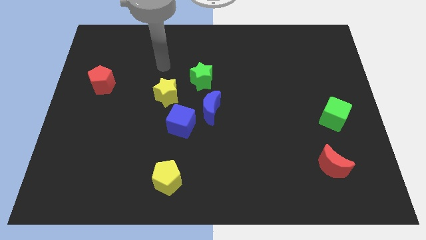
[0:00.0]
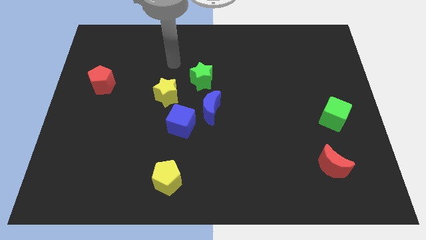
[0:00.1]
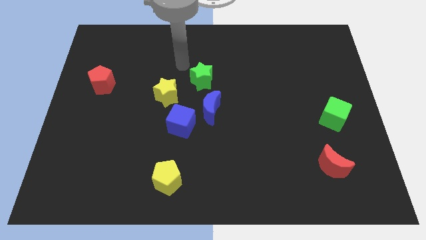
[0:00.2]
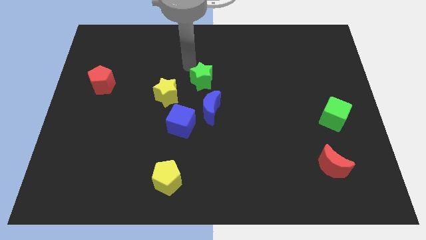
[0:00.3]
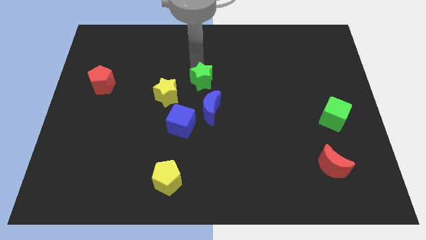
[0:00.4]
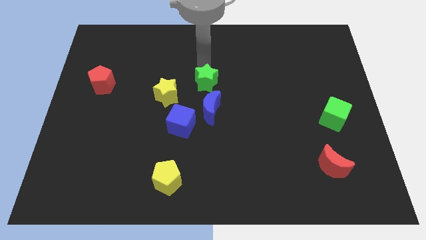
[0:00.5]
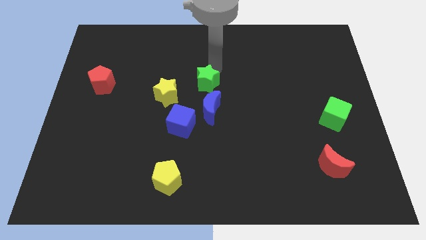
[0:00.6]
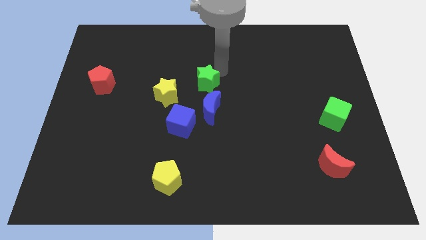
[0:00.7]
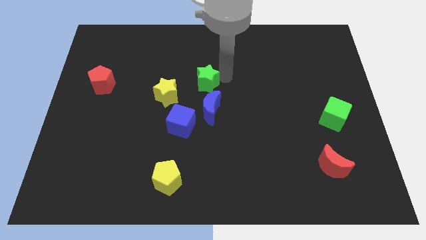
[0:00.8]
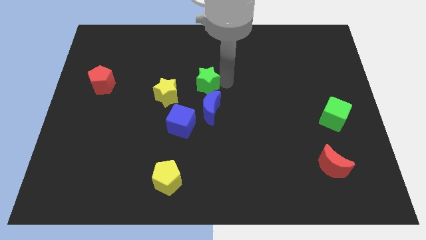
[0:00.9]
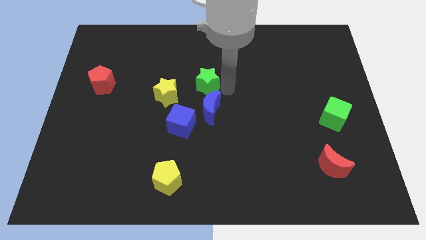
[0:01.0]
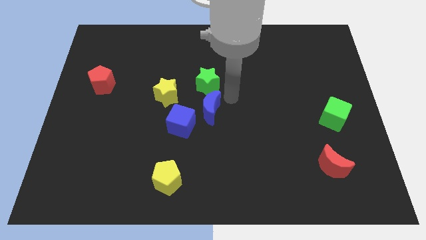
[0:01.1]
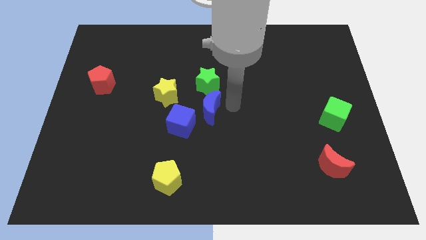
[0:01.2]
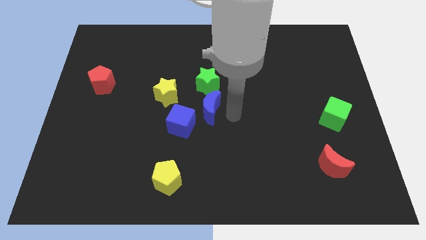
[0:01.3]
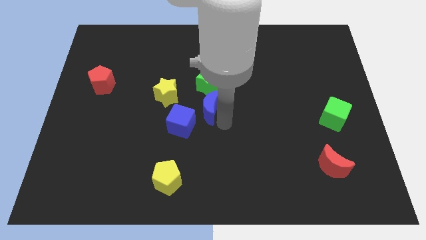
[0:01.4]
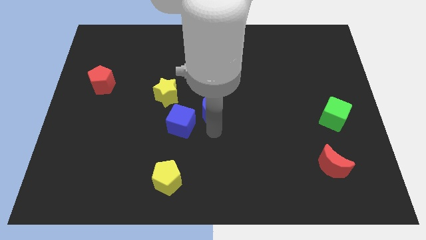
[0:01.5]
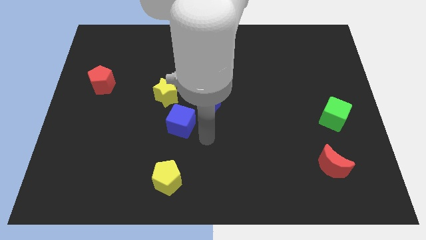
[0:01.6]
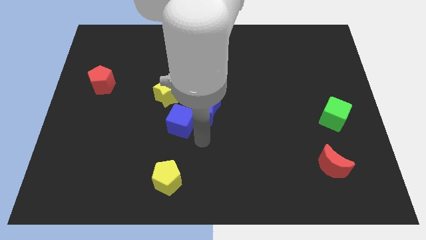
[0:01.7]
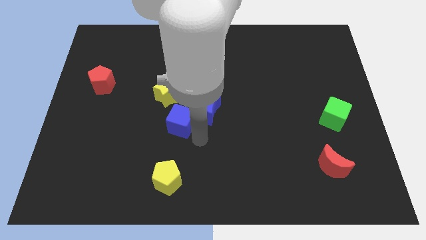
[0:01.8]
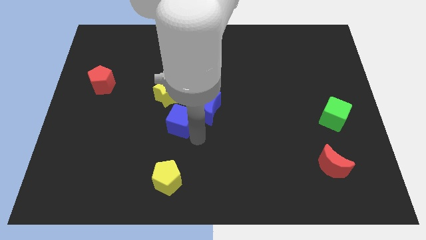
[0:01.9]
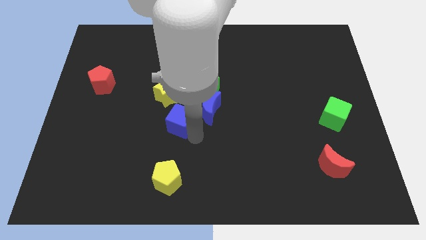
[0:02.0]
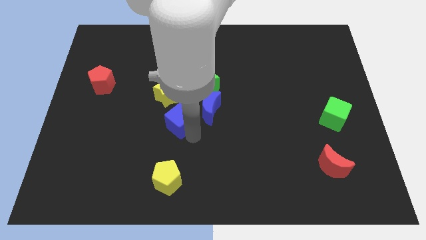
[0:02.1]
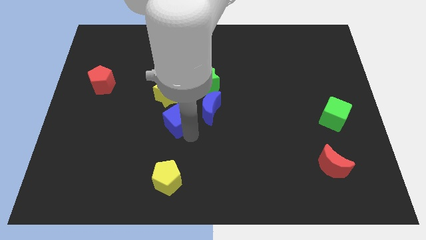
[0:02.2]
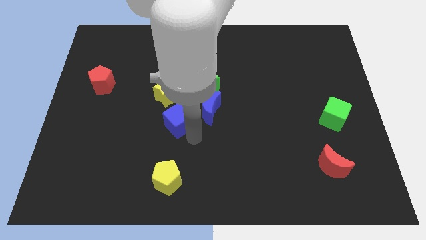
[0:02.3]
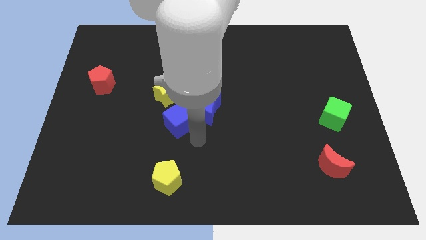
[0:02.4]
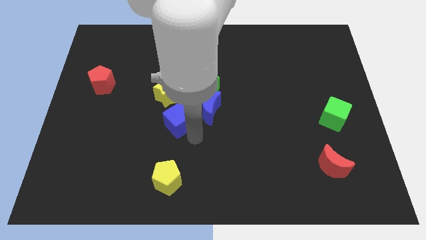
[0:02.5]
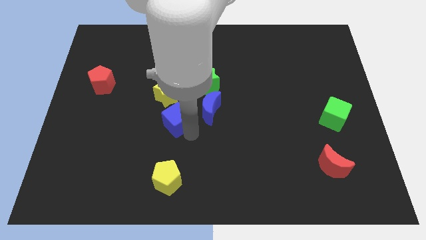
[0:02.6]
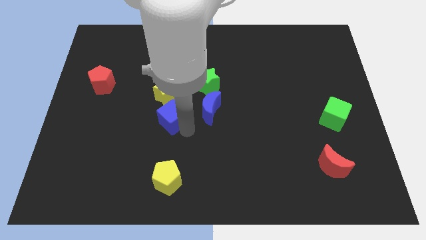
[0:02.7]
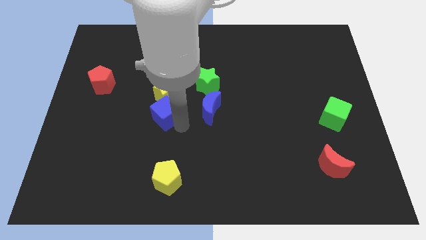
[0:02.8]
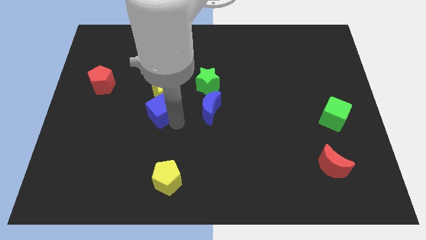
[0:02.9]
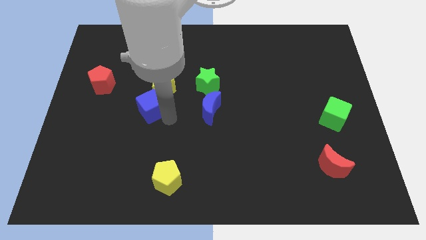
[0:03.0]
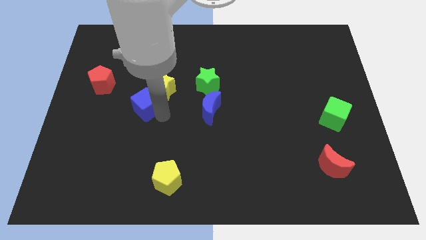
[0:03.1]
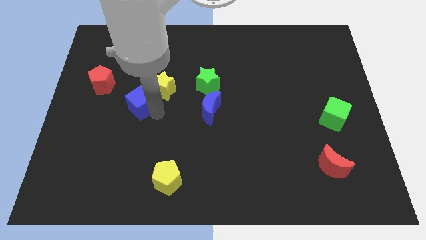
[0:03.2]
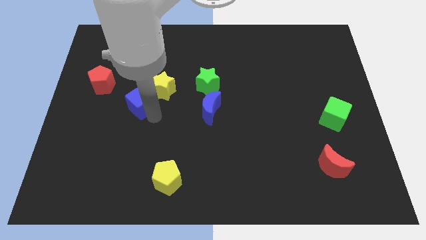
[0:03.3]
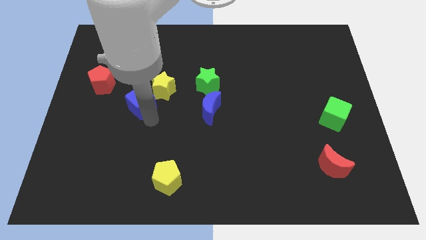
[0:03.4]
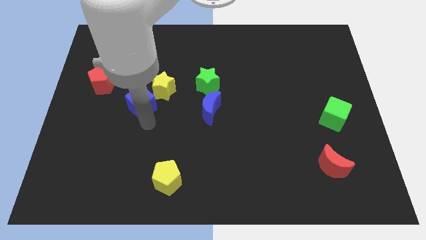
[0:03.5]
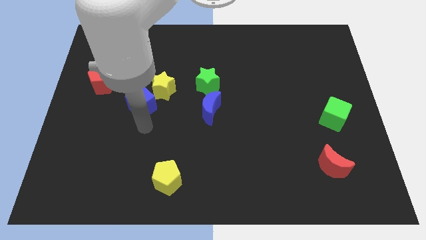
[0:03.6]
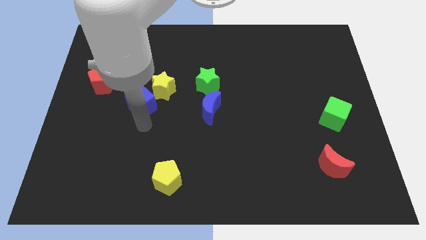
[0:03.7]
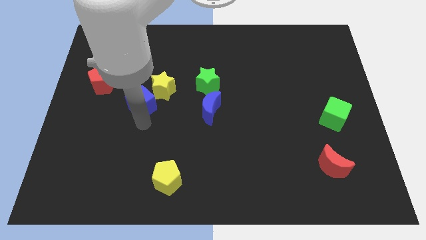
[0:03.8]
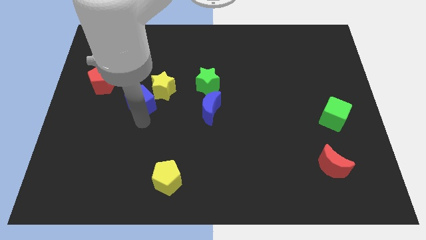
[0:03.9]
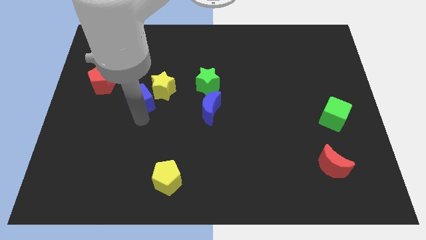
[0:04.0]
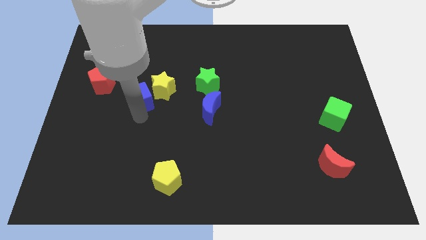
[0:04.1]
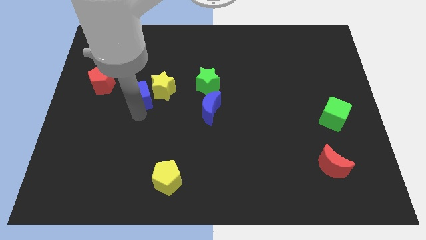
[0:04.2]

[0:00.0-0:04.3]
move the blue cube to the right side of the red pentagon

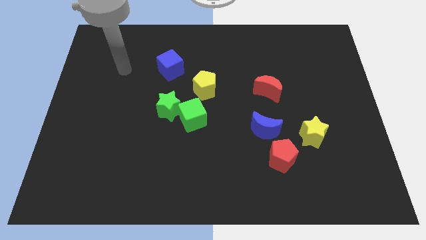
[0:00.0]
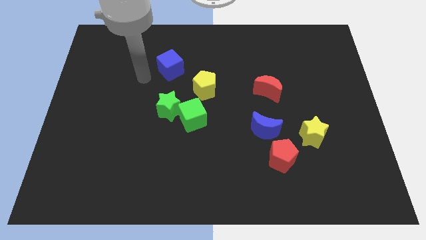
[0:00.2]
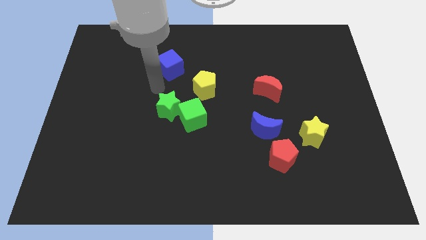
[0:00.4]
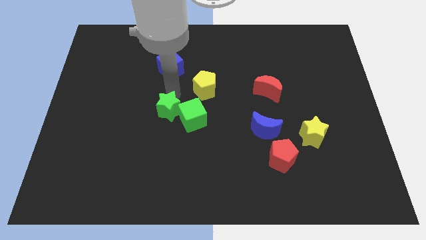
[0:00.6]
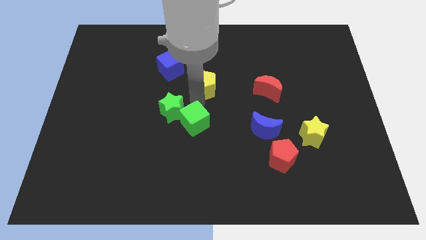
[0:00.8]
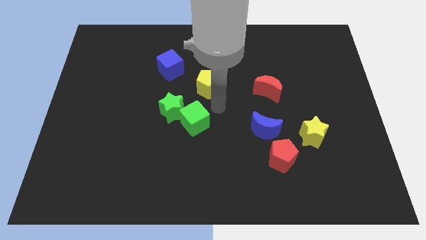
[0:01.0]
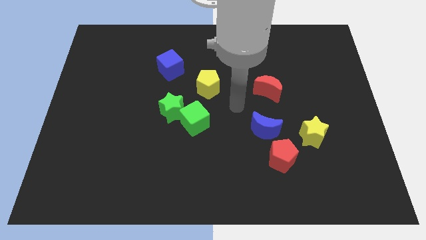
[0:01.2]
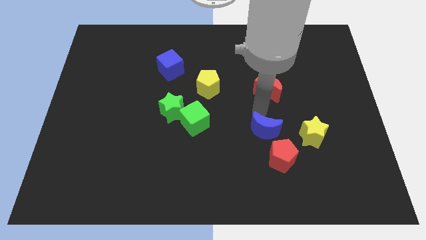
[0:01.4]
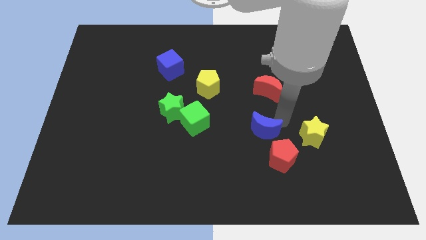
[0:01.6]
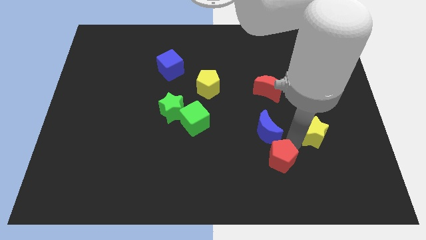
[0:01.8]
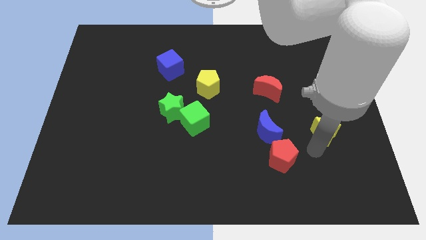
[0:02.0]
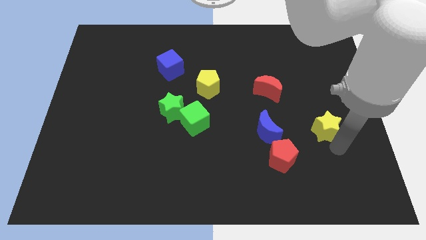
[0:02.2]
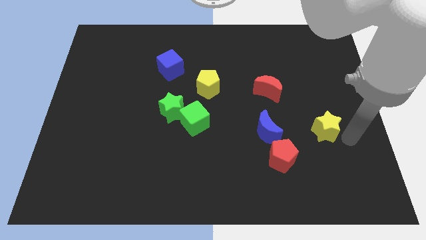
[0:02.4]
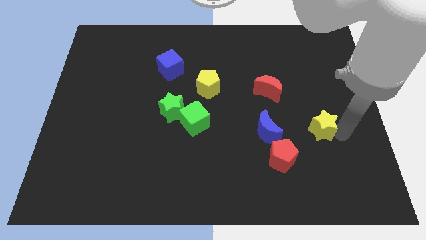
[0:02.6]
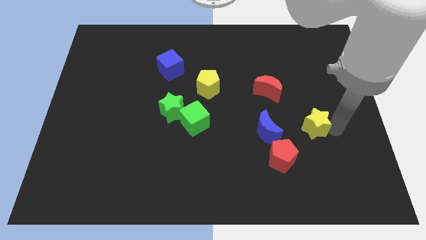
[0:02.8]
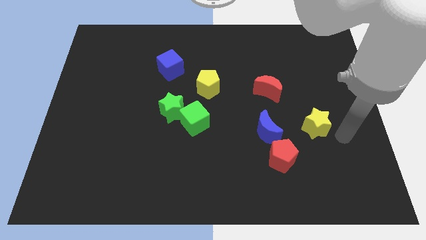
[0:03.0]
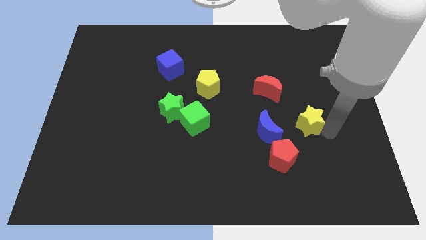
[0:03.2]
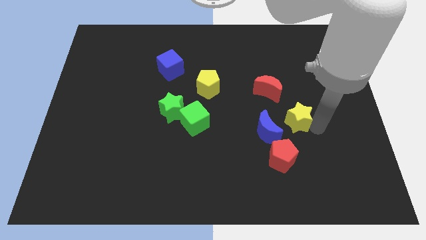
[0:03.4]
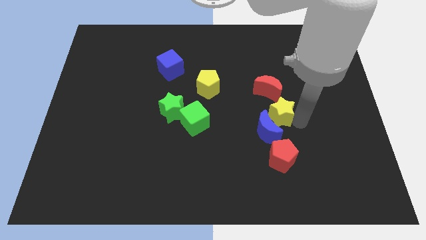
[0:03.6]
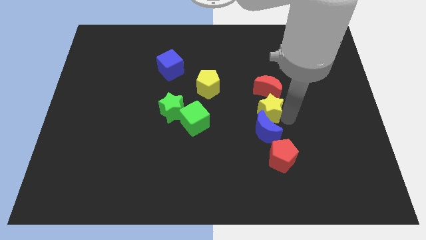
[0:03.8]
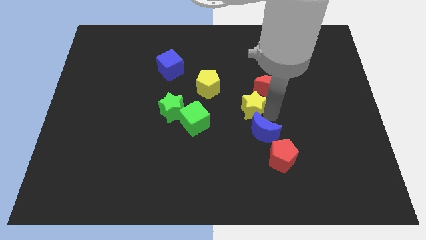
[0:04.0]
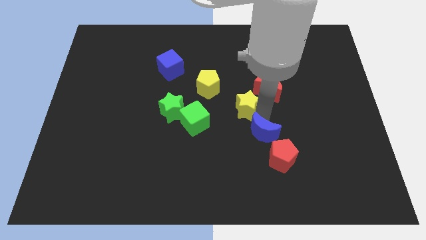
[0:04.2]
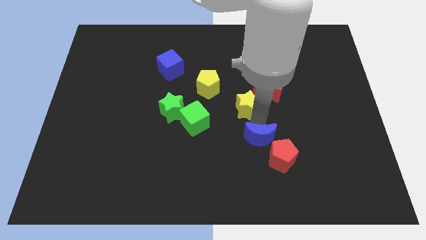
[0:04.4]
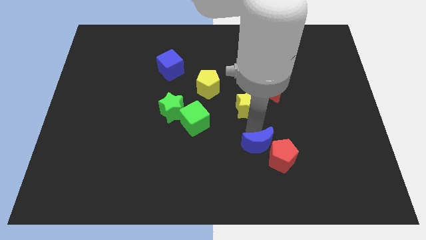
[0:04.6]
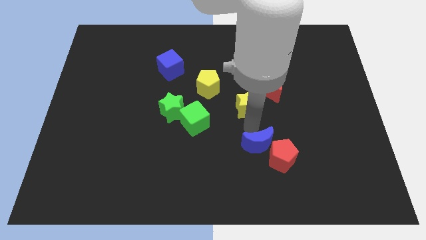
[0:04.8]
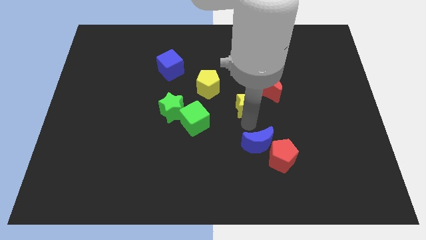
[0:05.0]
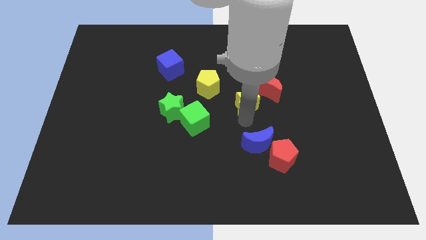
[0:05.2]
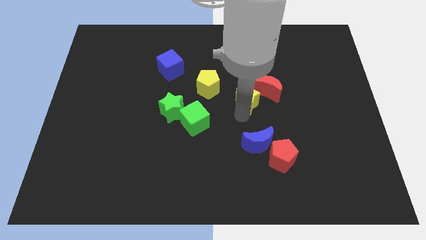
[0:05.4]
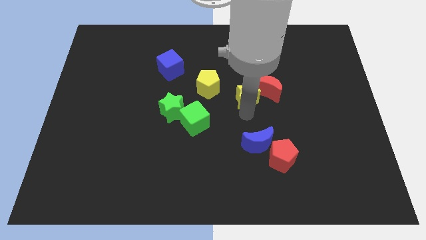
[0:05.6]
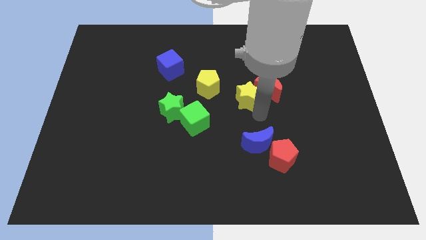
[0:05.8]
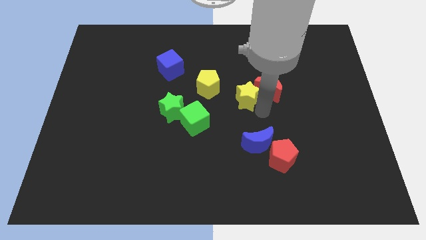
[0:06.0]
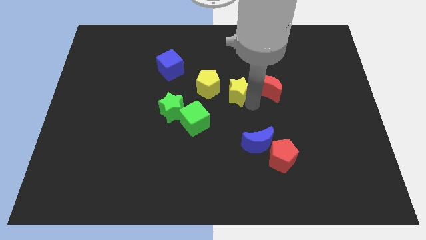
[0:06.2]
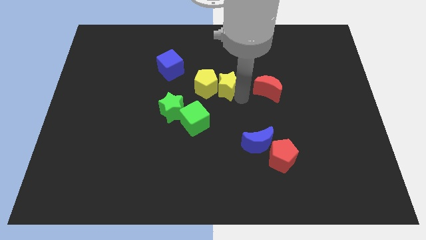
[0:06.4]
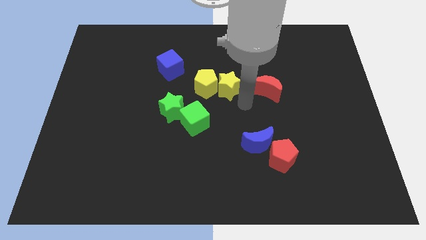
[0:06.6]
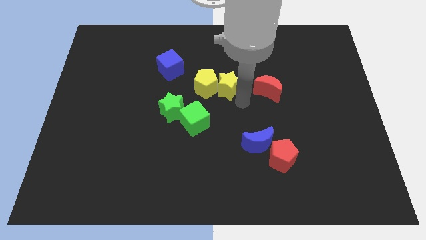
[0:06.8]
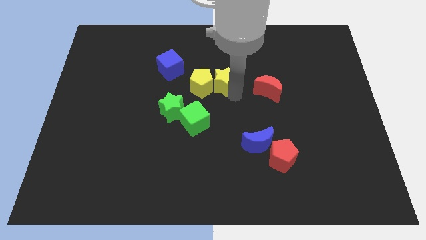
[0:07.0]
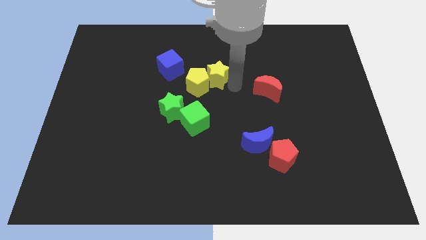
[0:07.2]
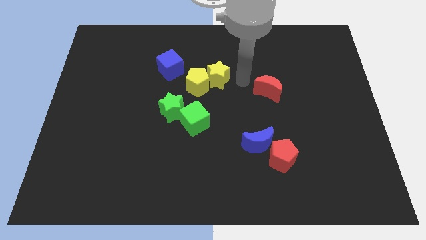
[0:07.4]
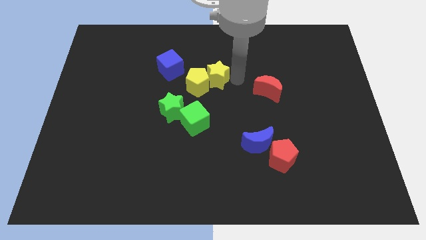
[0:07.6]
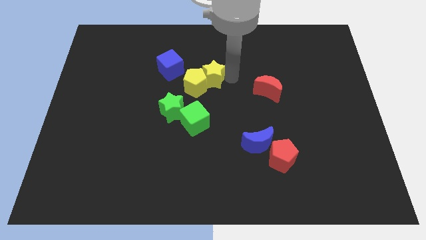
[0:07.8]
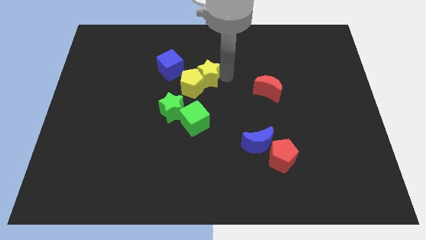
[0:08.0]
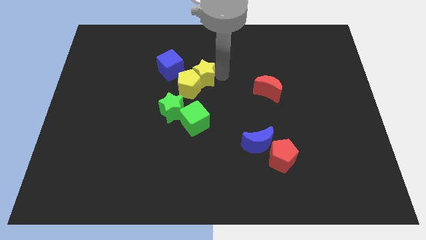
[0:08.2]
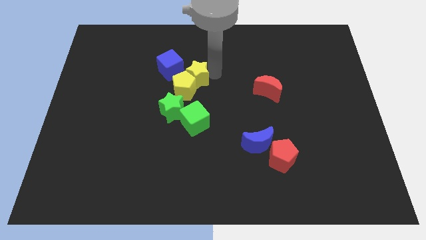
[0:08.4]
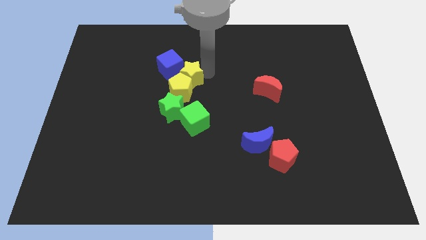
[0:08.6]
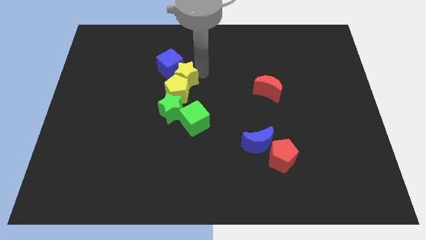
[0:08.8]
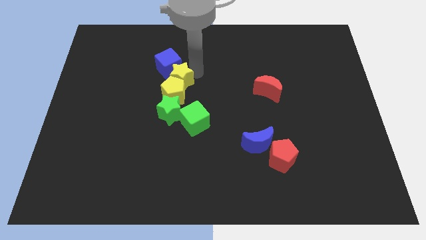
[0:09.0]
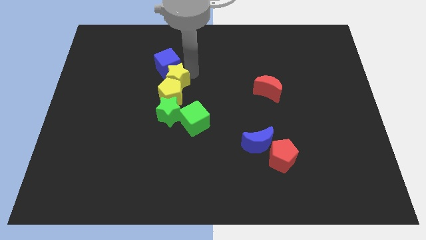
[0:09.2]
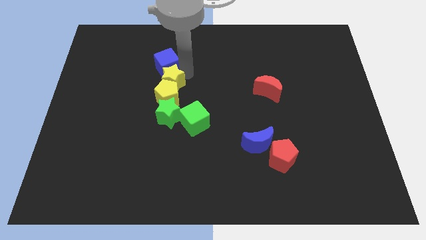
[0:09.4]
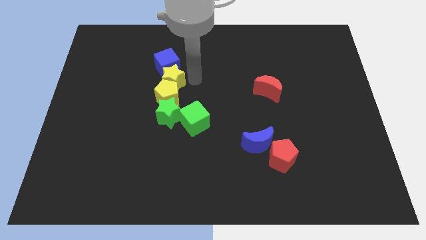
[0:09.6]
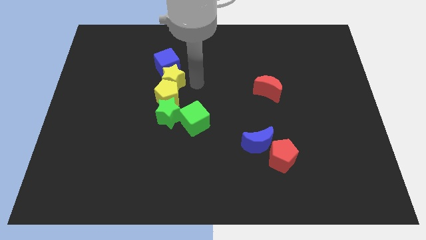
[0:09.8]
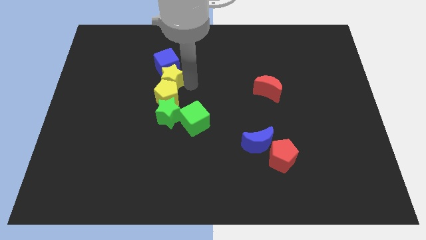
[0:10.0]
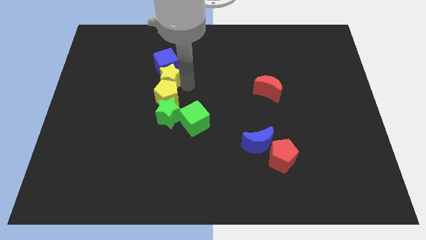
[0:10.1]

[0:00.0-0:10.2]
push the yellow star to the bottom left of the blue cube
